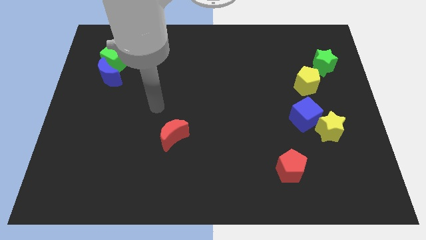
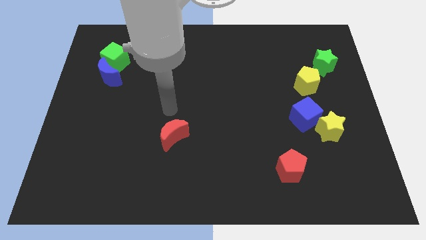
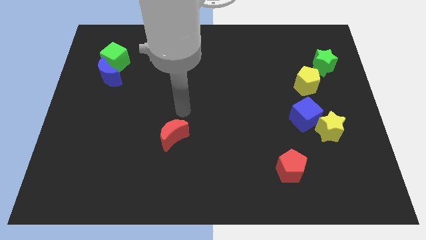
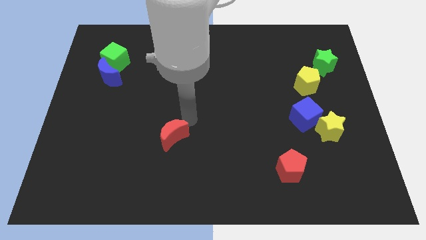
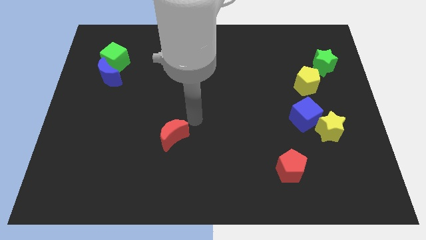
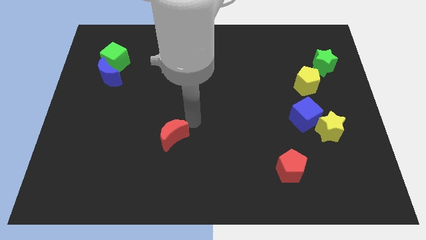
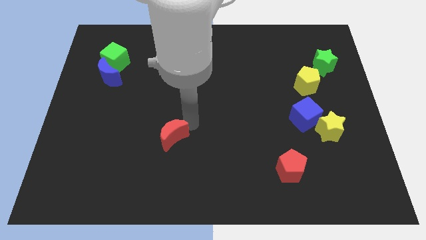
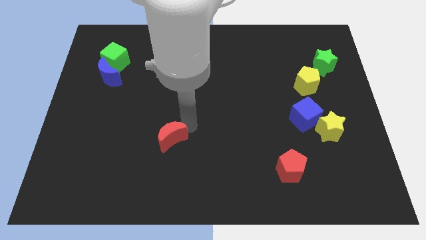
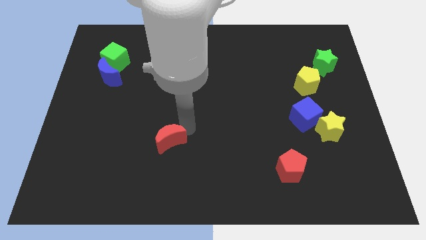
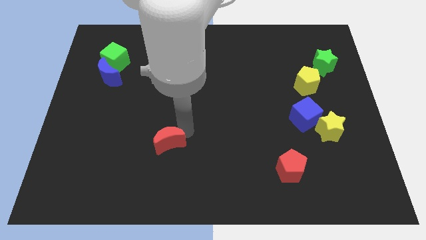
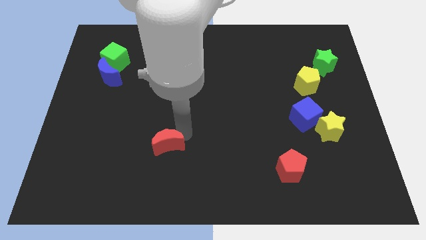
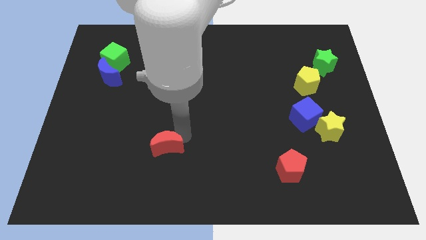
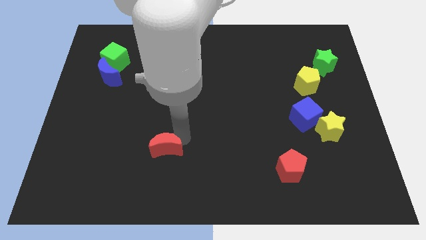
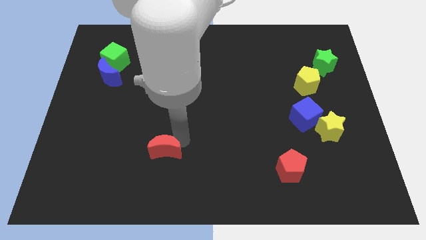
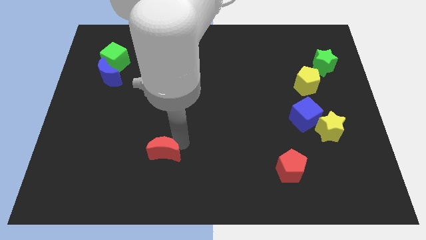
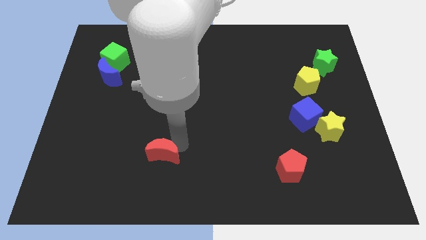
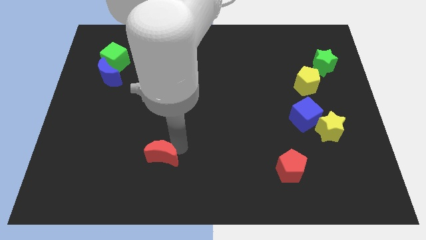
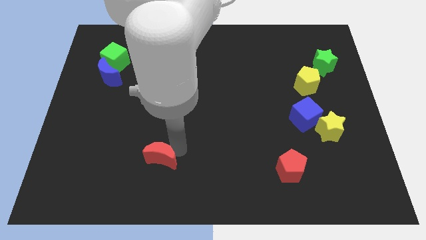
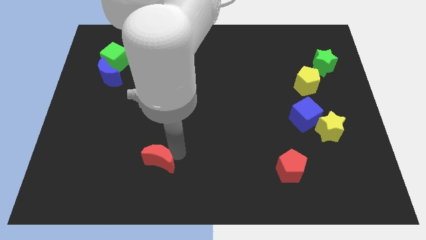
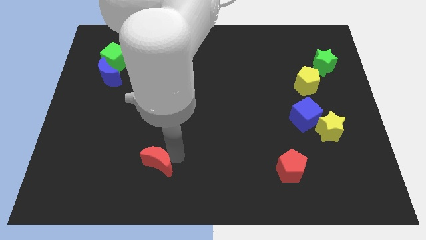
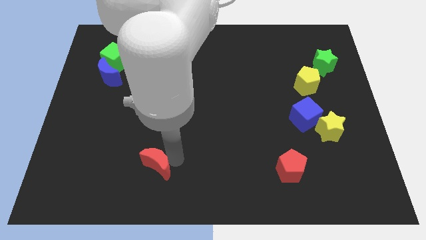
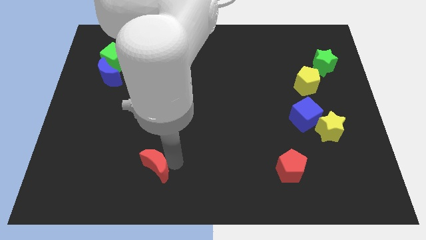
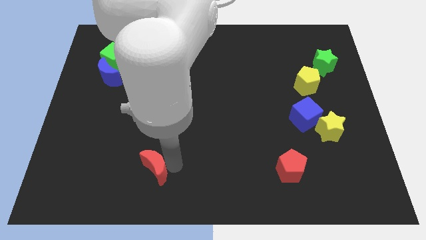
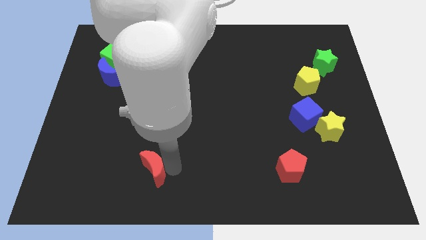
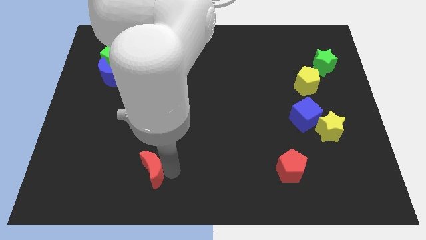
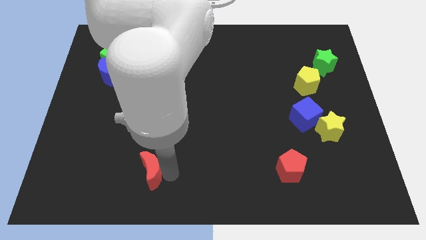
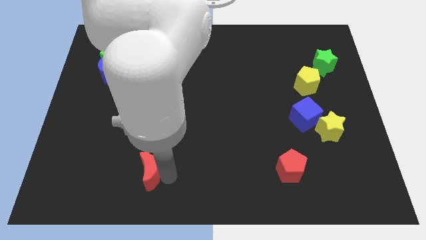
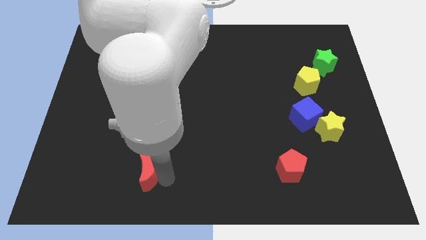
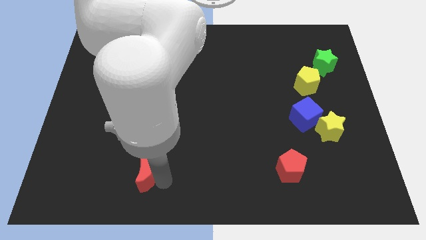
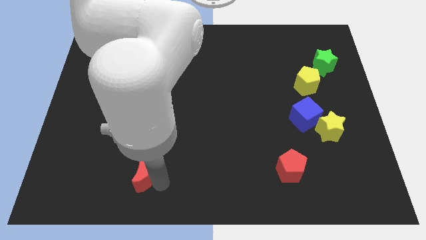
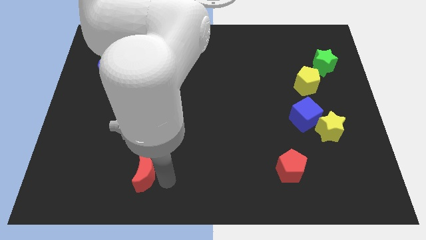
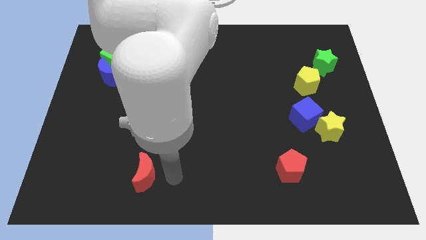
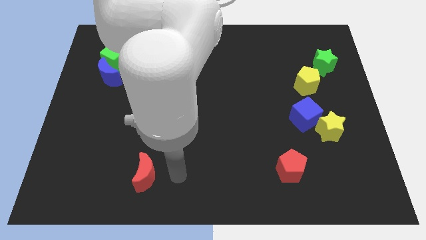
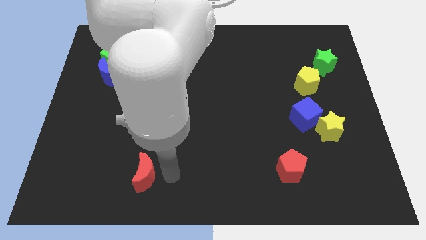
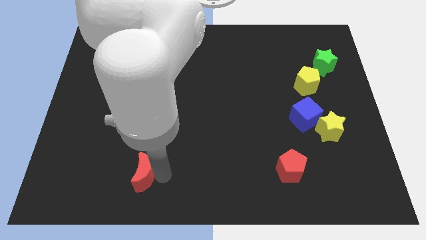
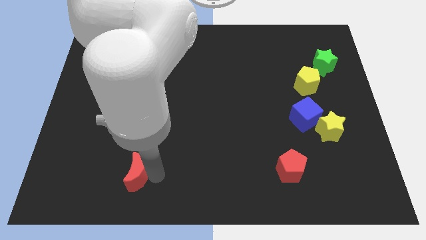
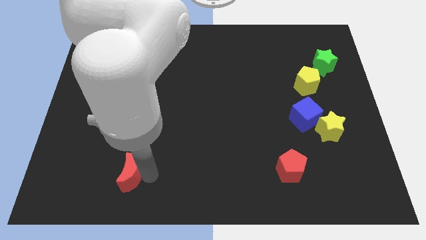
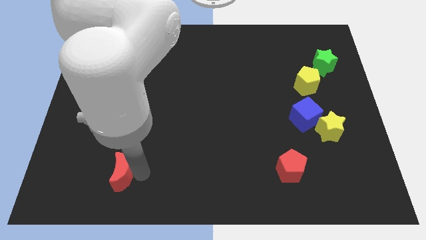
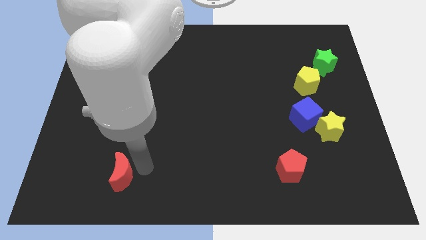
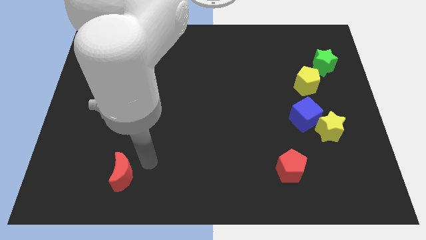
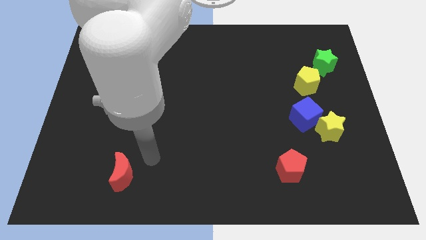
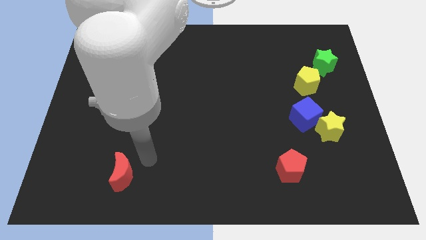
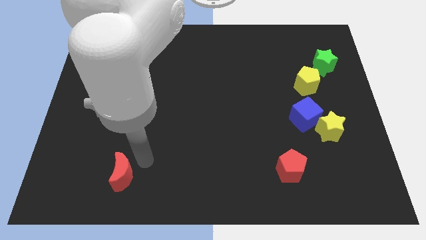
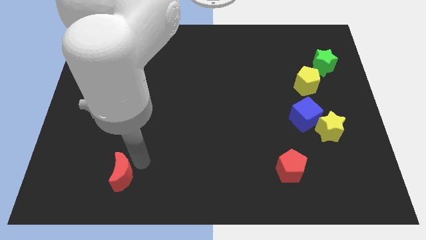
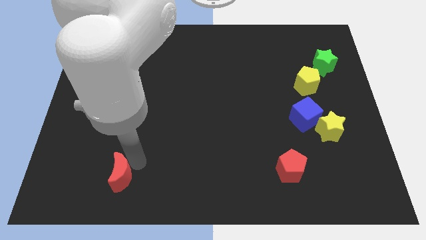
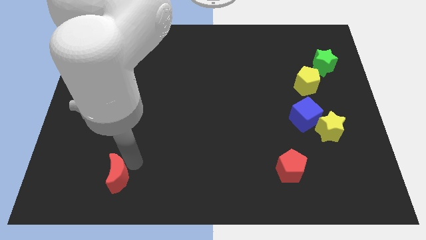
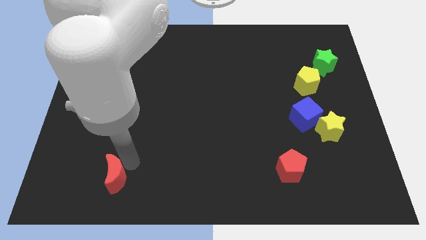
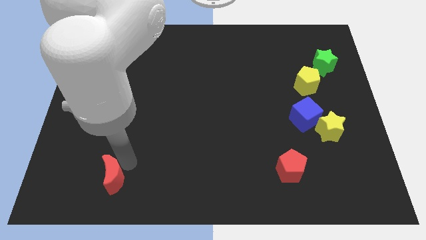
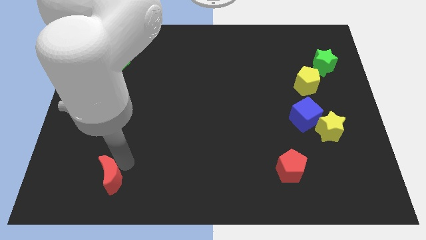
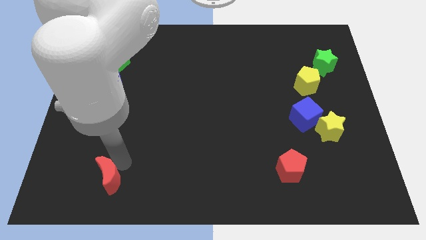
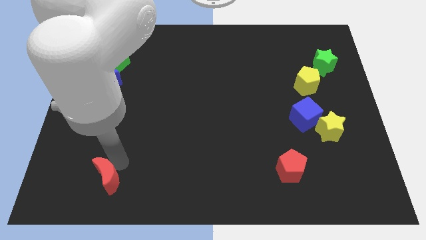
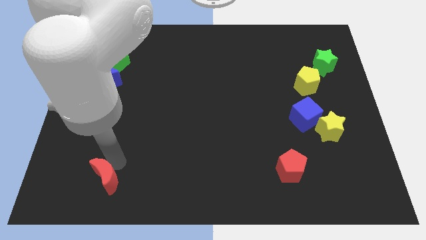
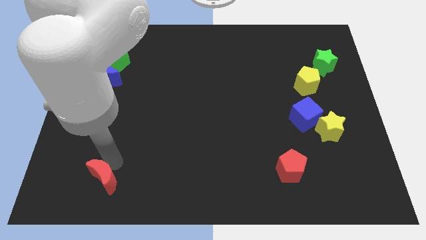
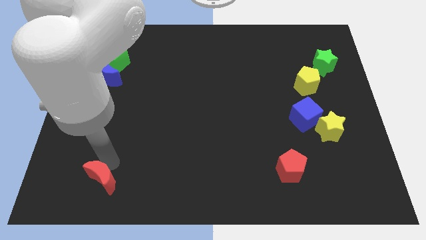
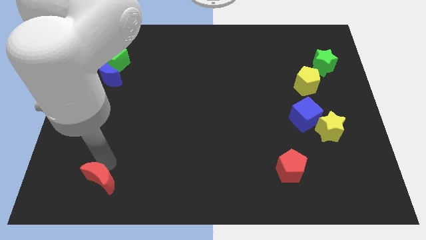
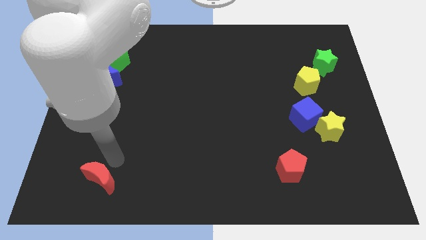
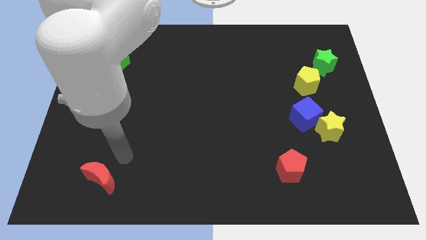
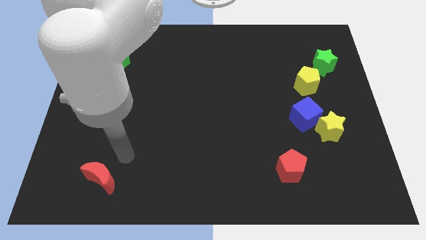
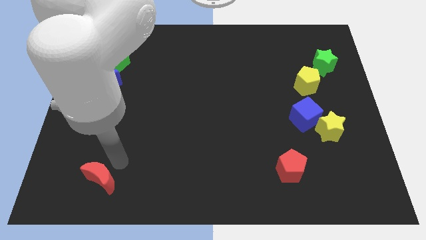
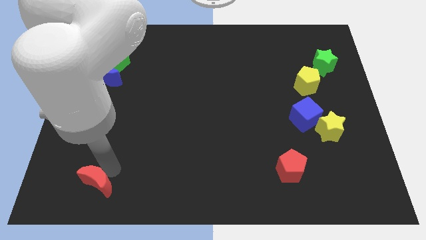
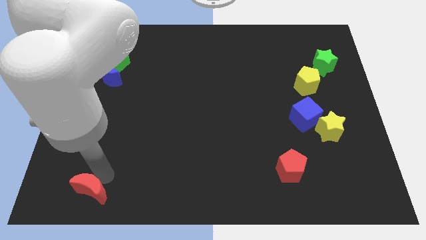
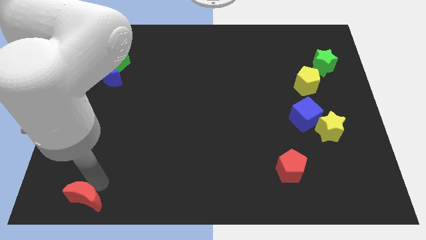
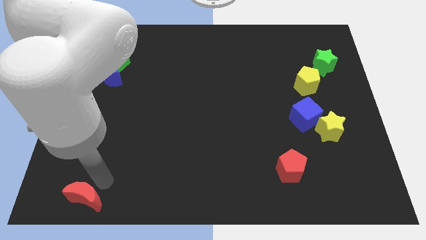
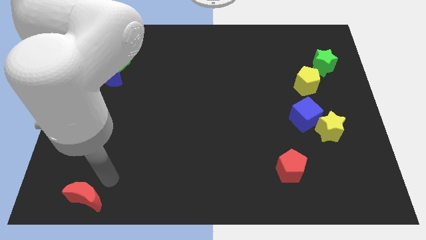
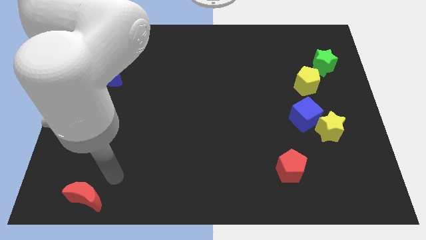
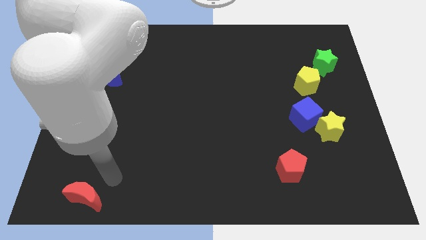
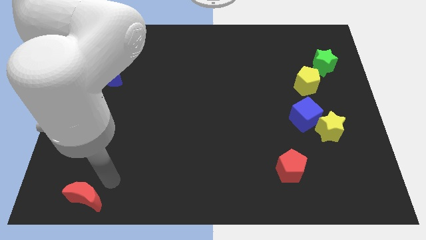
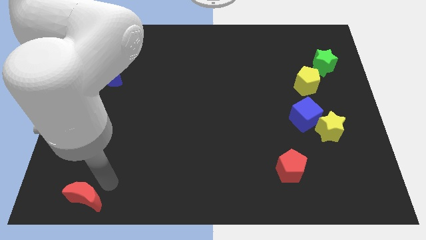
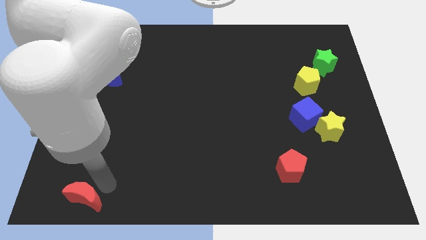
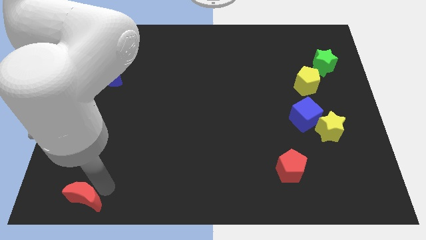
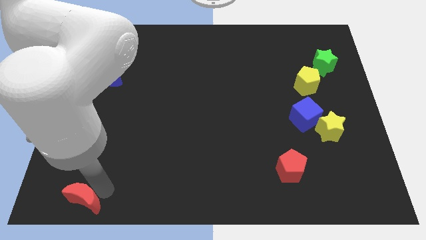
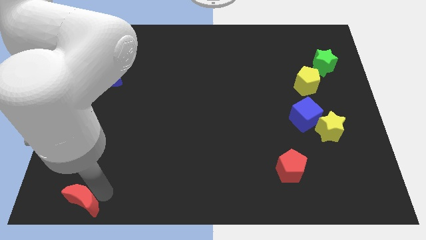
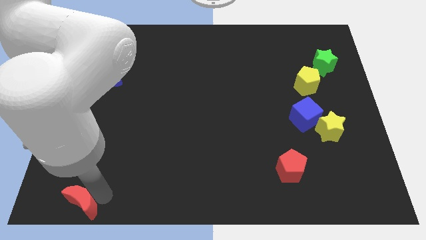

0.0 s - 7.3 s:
put the red moon to the bottom left
